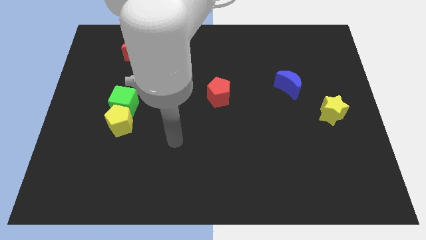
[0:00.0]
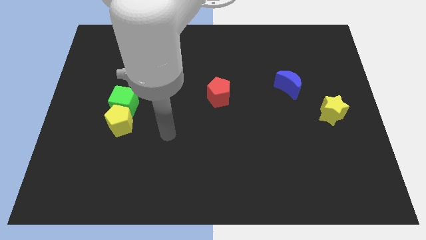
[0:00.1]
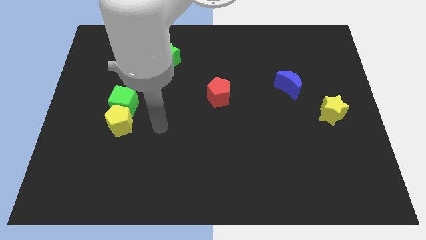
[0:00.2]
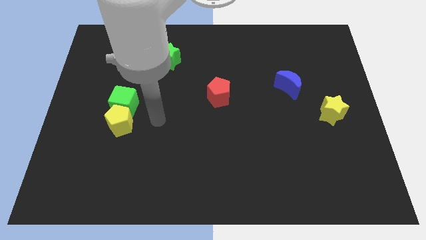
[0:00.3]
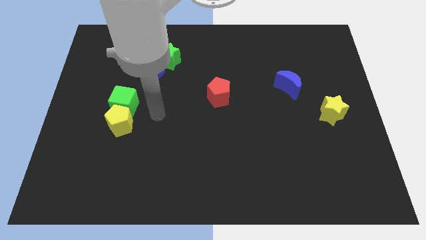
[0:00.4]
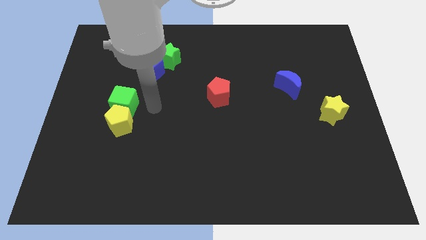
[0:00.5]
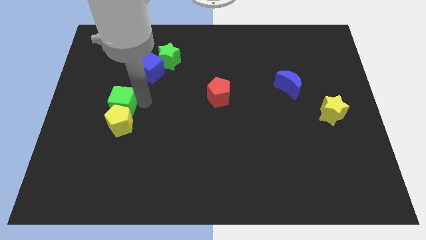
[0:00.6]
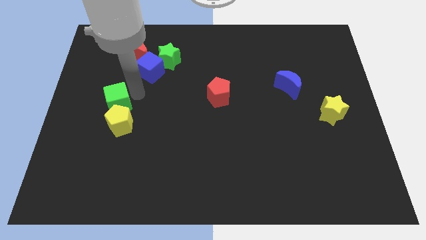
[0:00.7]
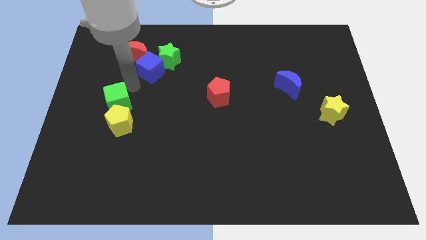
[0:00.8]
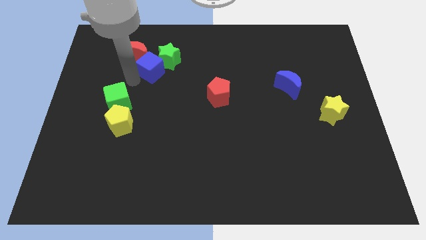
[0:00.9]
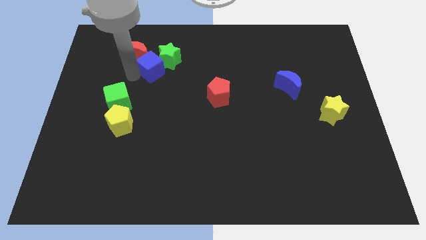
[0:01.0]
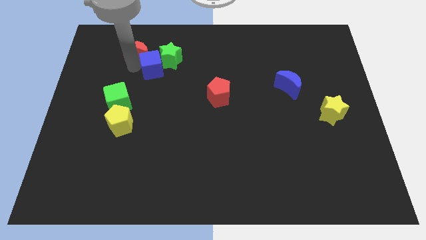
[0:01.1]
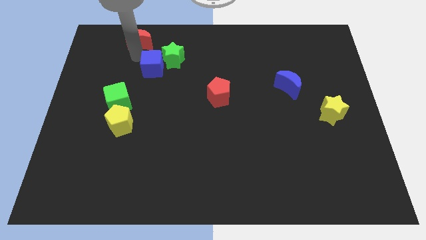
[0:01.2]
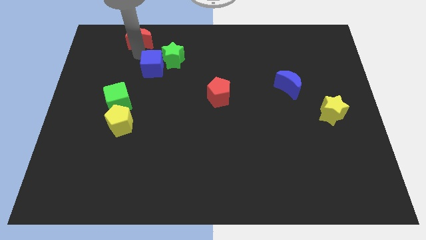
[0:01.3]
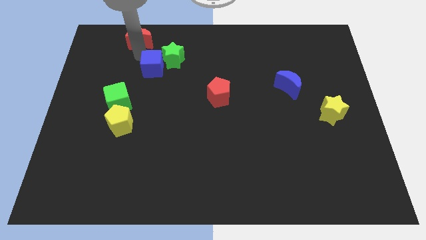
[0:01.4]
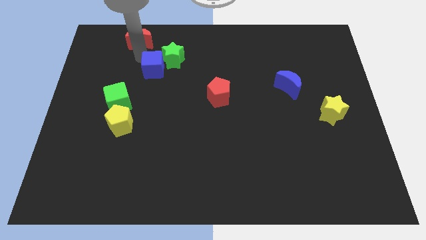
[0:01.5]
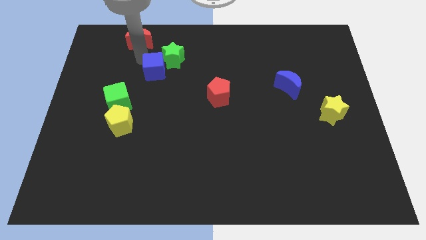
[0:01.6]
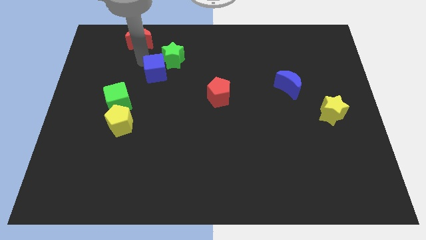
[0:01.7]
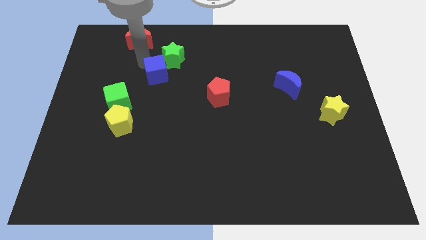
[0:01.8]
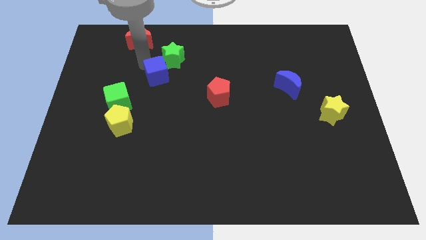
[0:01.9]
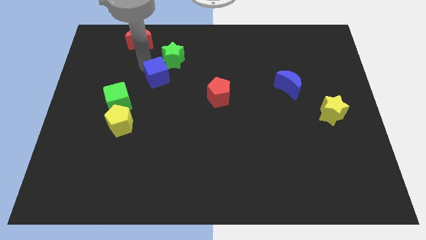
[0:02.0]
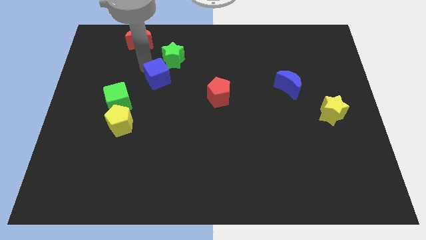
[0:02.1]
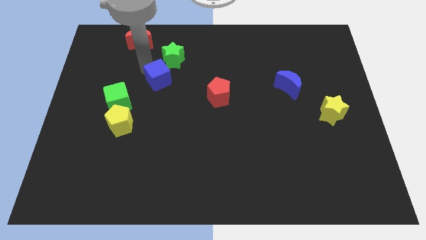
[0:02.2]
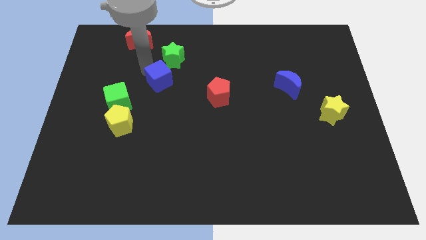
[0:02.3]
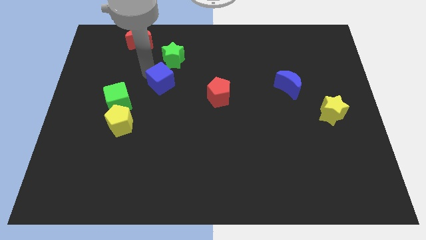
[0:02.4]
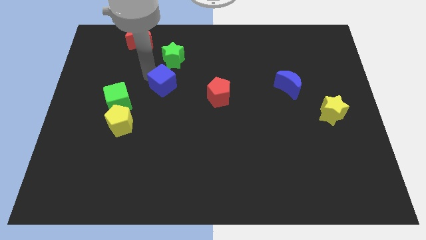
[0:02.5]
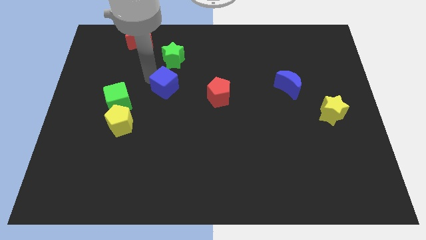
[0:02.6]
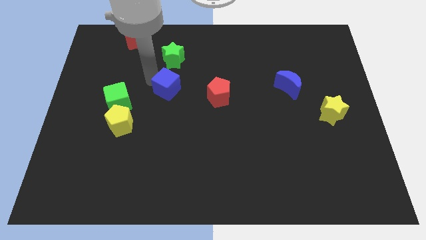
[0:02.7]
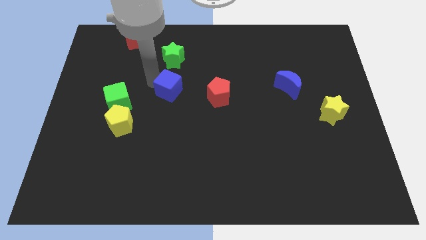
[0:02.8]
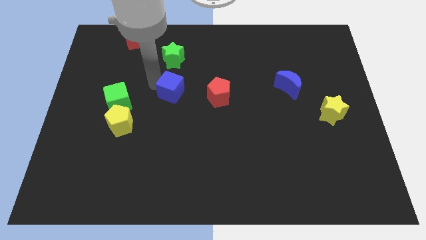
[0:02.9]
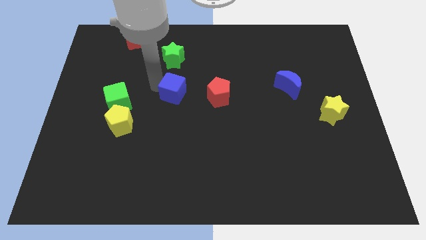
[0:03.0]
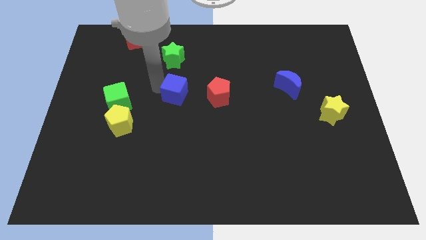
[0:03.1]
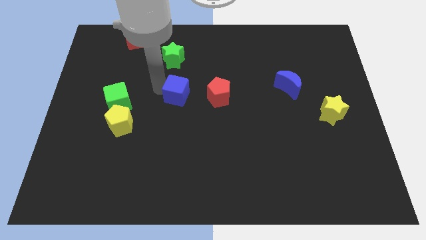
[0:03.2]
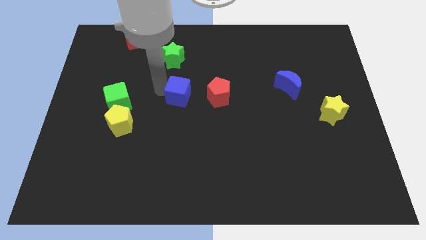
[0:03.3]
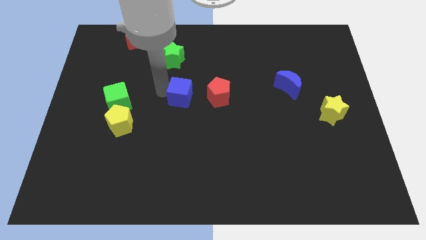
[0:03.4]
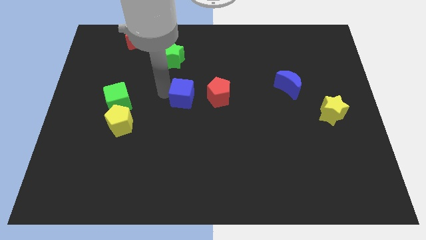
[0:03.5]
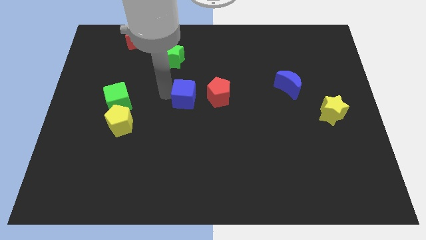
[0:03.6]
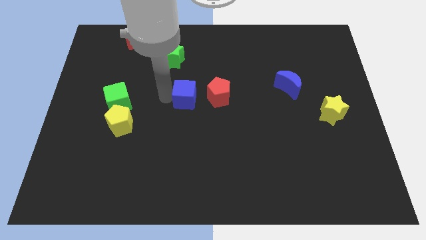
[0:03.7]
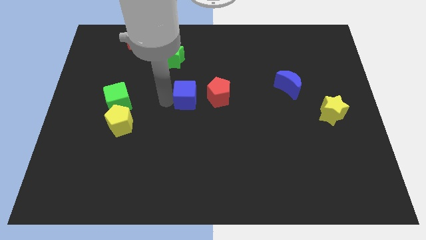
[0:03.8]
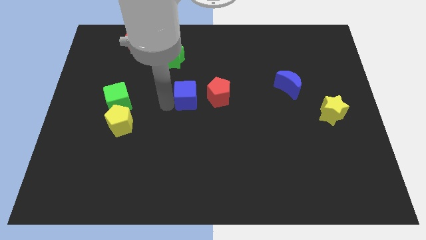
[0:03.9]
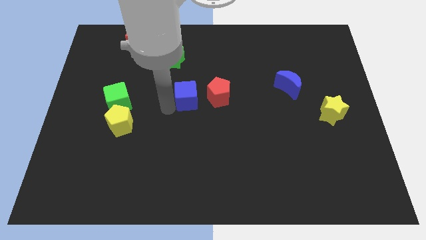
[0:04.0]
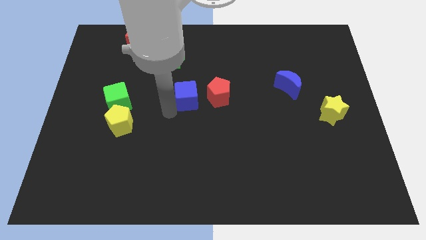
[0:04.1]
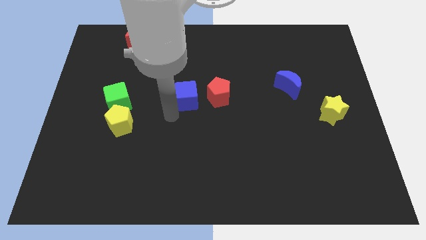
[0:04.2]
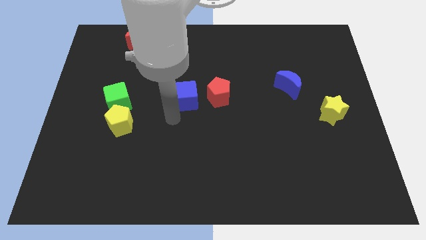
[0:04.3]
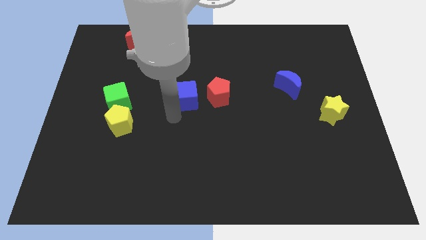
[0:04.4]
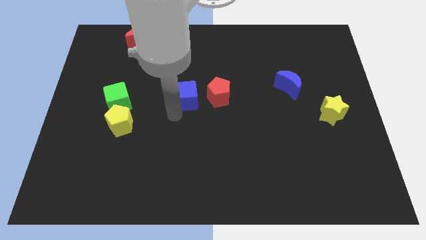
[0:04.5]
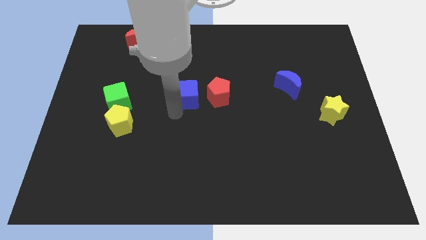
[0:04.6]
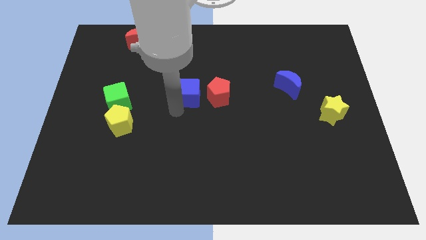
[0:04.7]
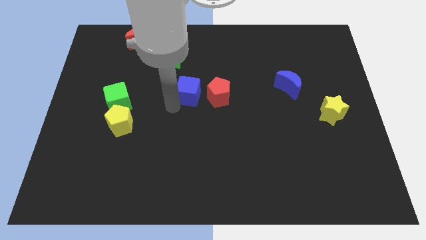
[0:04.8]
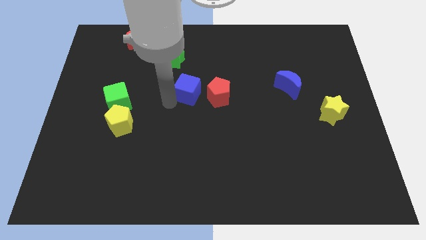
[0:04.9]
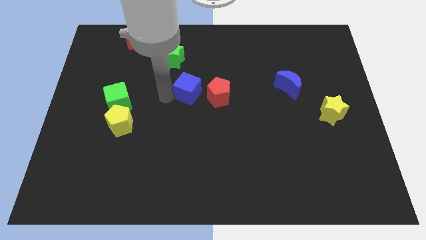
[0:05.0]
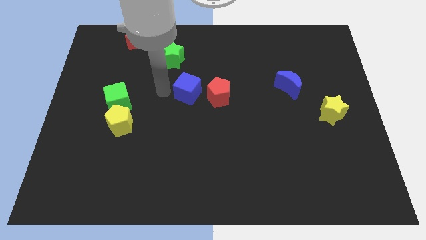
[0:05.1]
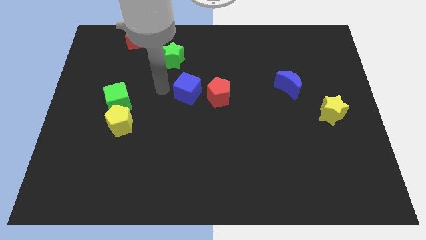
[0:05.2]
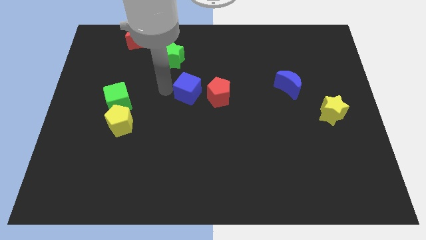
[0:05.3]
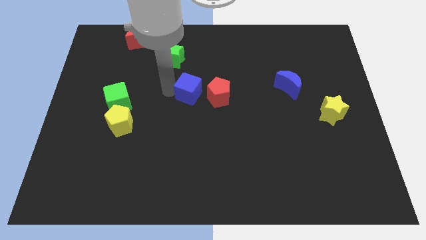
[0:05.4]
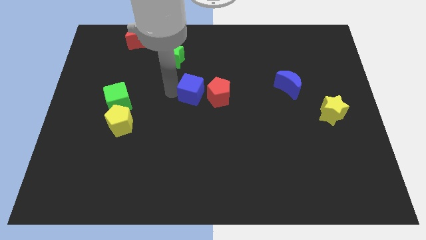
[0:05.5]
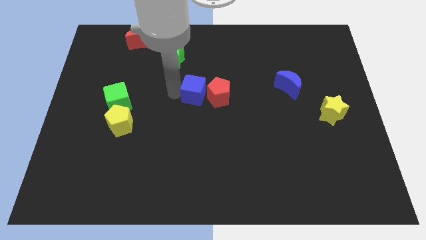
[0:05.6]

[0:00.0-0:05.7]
put the blue cube close to the red pentagon

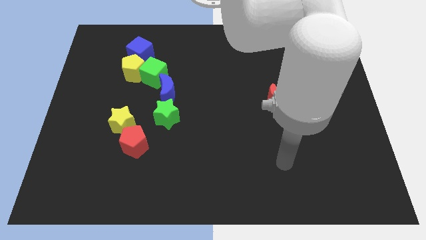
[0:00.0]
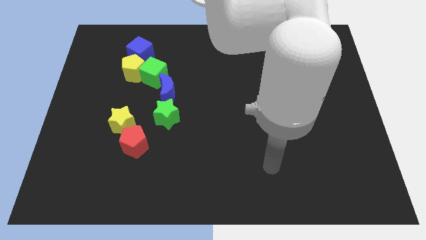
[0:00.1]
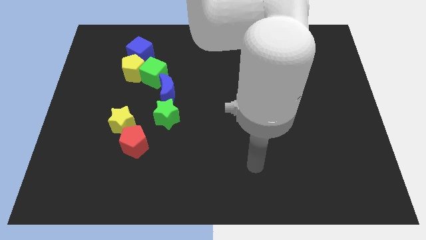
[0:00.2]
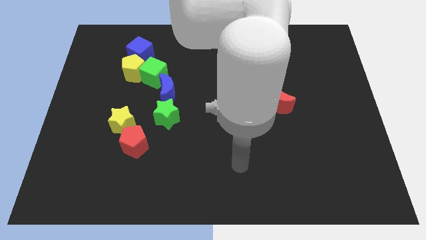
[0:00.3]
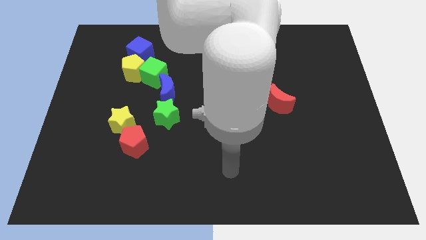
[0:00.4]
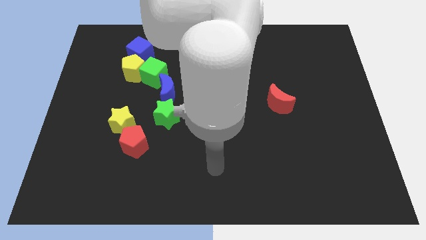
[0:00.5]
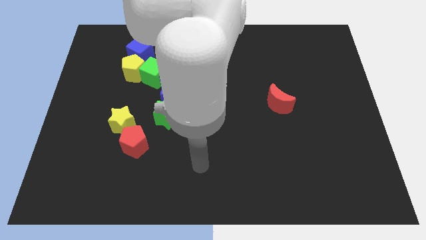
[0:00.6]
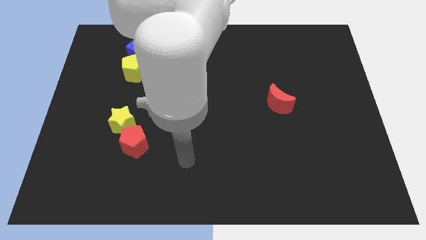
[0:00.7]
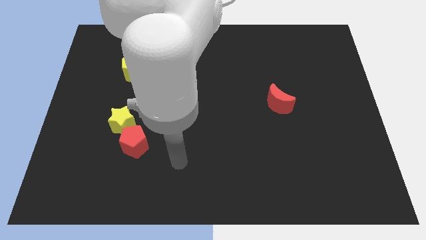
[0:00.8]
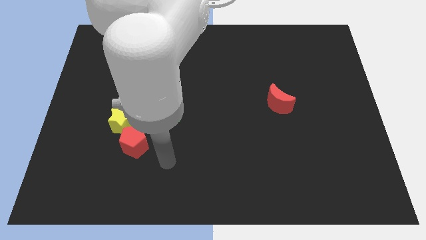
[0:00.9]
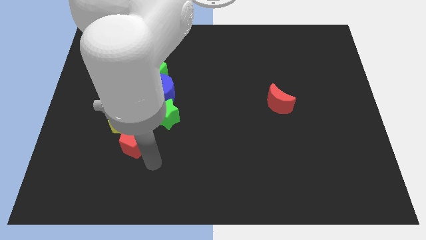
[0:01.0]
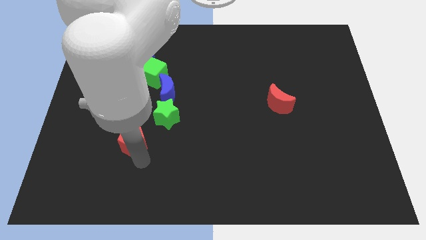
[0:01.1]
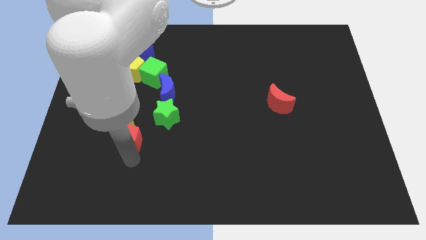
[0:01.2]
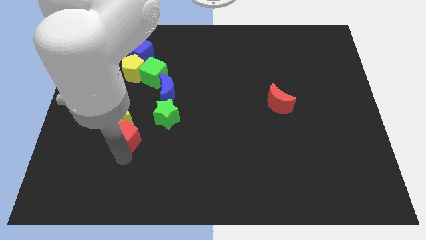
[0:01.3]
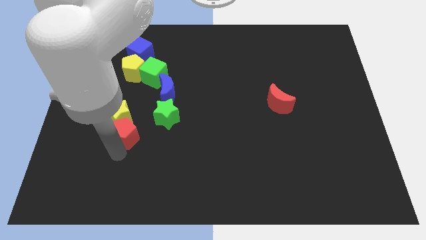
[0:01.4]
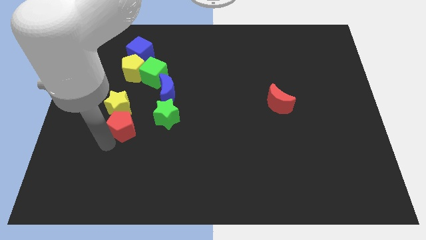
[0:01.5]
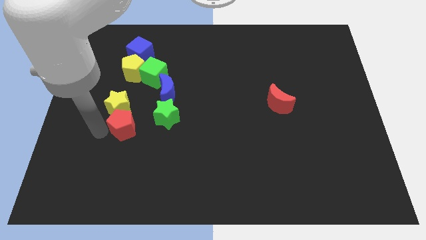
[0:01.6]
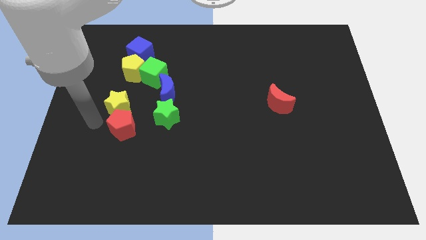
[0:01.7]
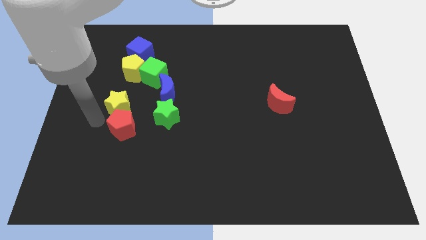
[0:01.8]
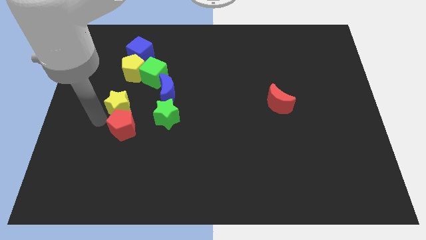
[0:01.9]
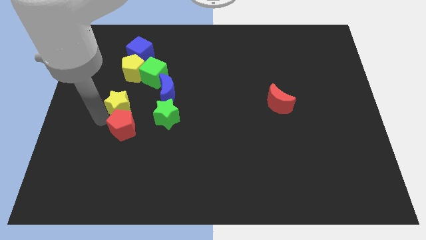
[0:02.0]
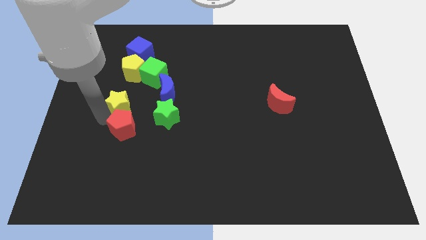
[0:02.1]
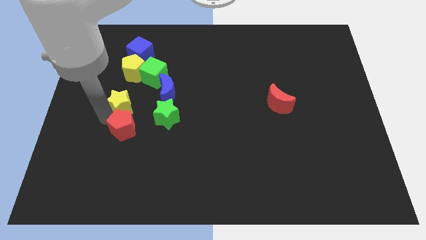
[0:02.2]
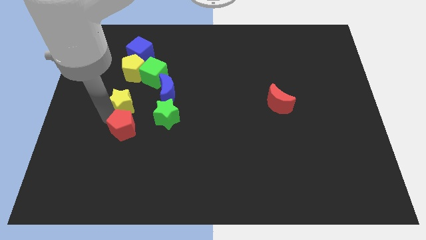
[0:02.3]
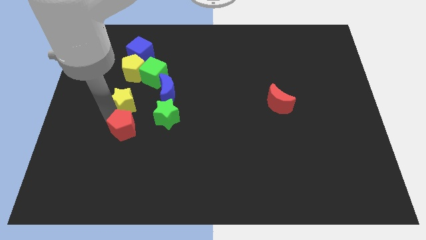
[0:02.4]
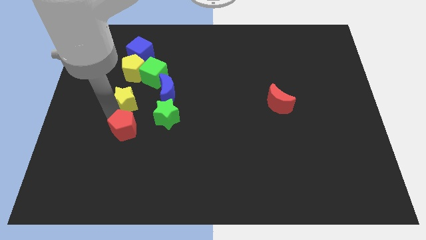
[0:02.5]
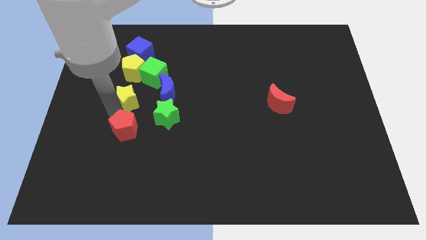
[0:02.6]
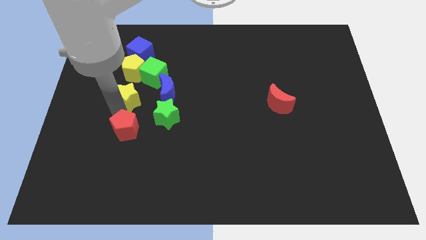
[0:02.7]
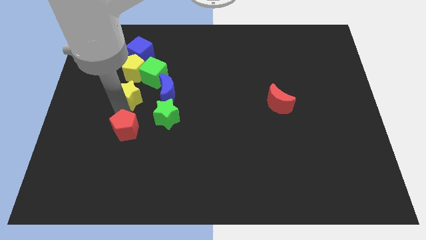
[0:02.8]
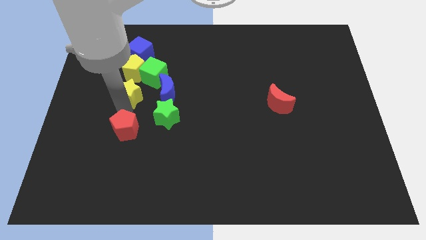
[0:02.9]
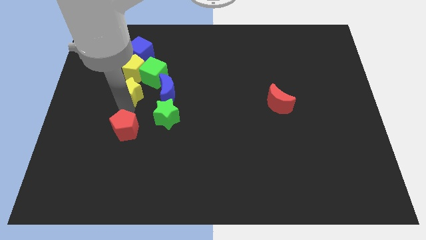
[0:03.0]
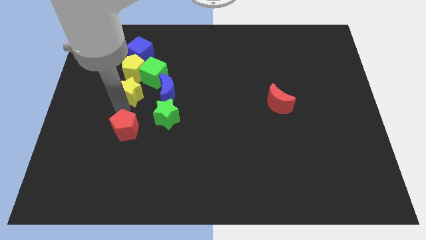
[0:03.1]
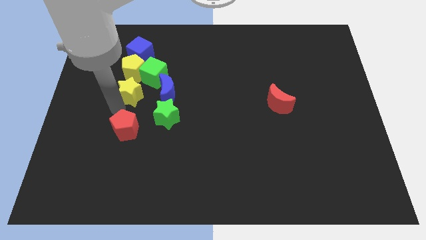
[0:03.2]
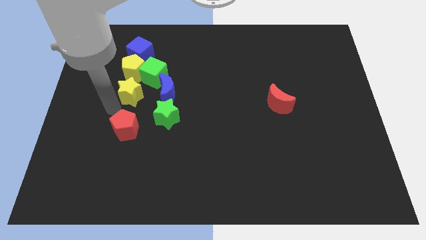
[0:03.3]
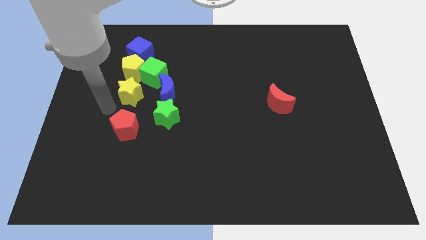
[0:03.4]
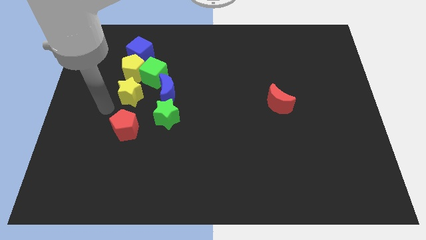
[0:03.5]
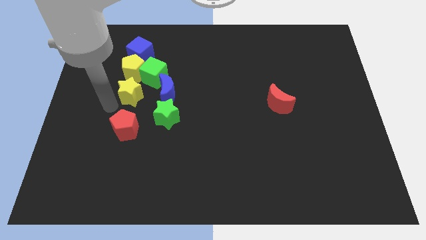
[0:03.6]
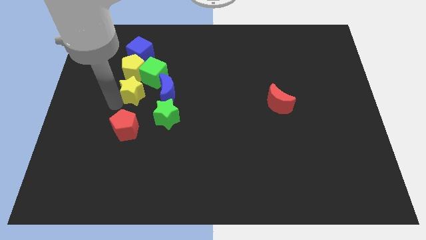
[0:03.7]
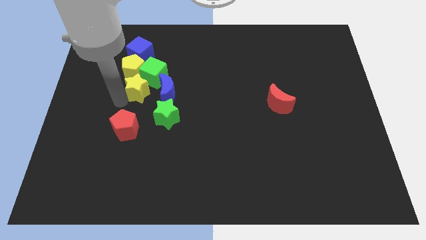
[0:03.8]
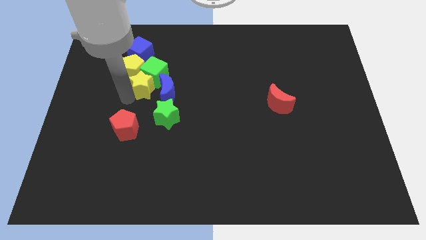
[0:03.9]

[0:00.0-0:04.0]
slide the yellow star to the green cube
